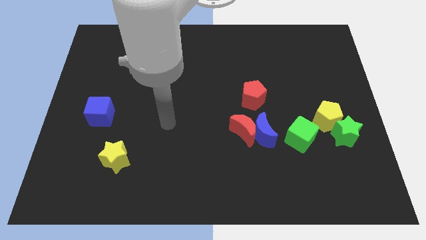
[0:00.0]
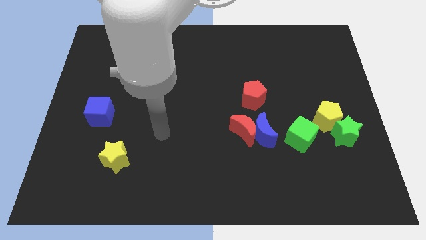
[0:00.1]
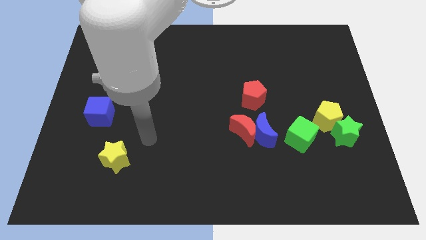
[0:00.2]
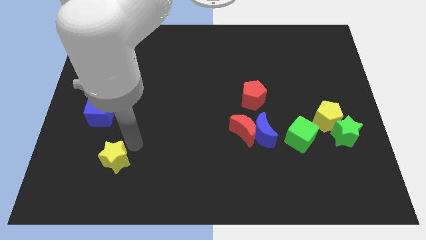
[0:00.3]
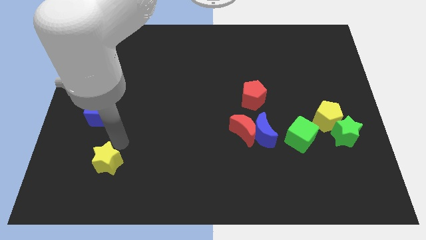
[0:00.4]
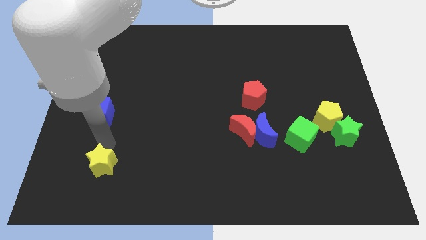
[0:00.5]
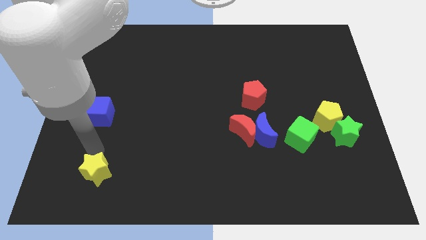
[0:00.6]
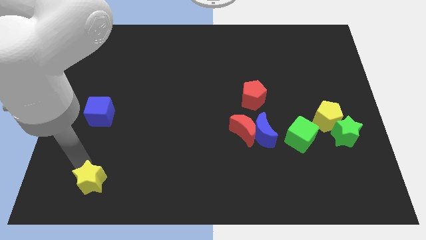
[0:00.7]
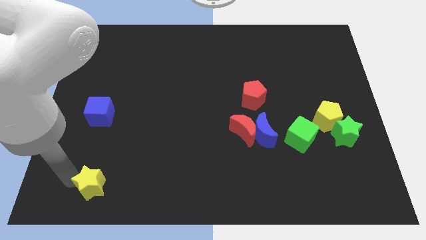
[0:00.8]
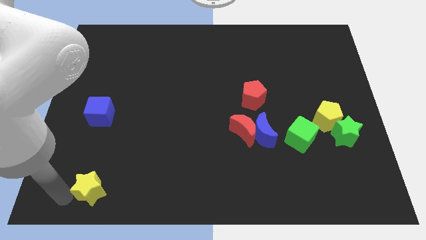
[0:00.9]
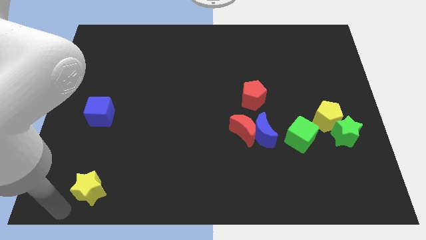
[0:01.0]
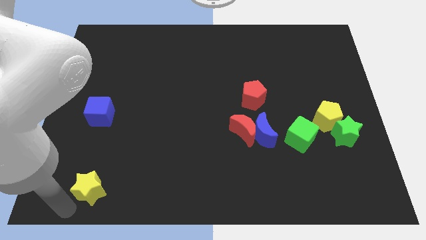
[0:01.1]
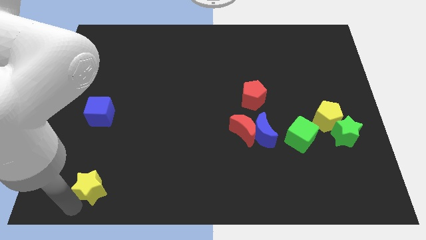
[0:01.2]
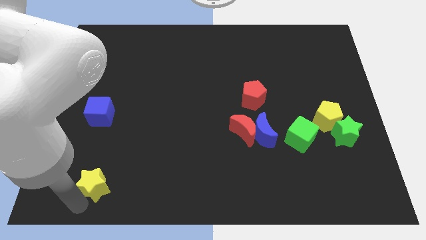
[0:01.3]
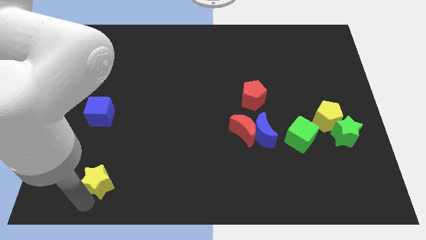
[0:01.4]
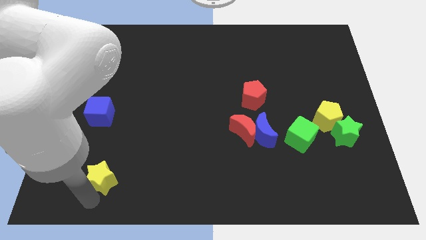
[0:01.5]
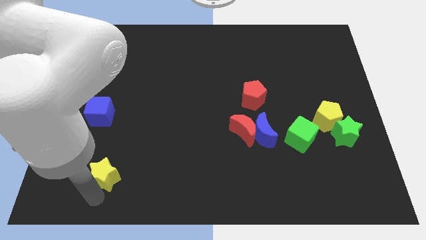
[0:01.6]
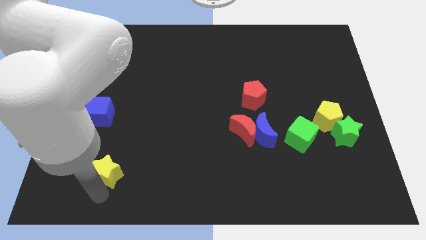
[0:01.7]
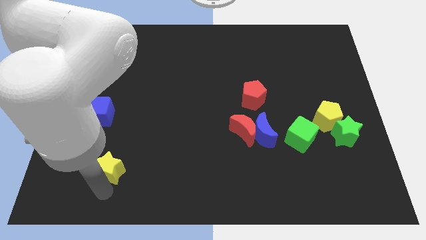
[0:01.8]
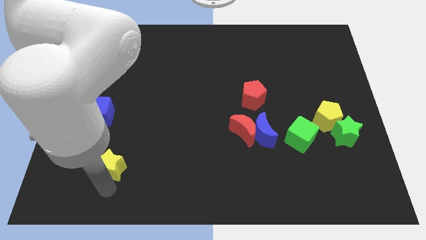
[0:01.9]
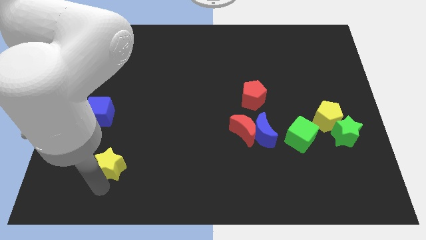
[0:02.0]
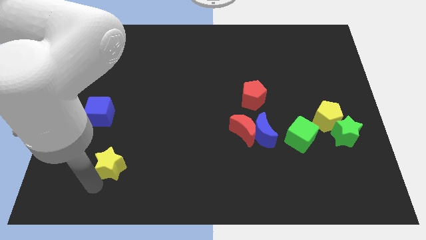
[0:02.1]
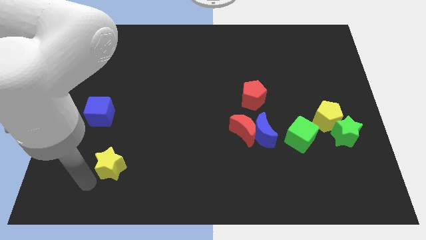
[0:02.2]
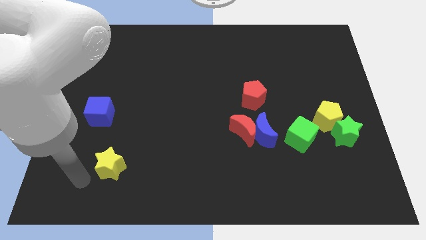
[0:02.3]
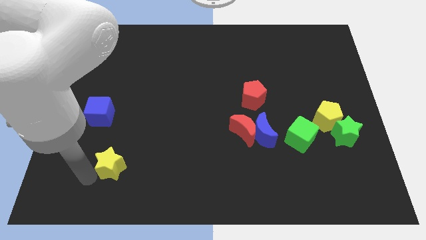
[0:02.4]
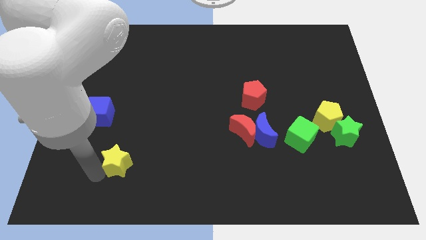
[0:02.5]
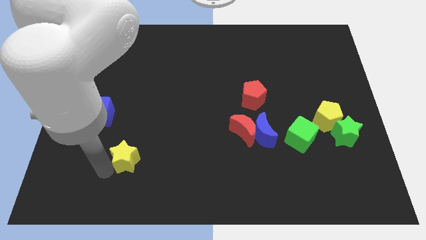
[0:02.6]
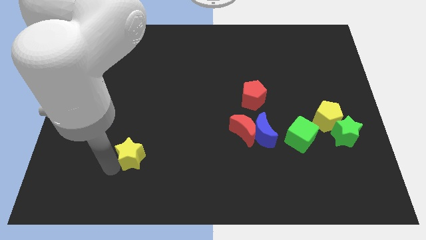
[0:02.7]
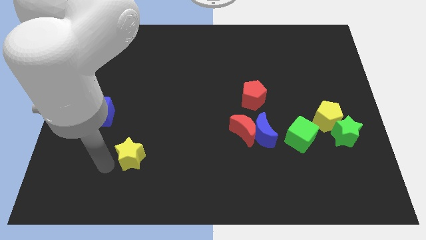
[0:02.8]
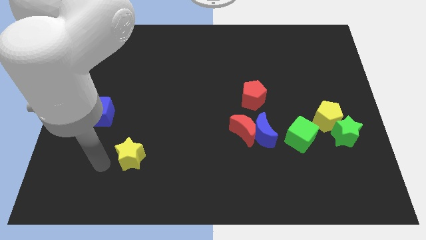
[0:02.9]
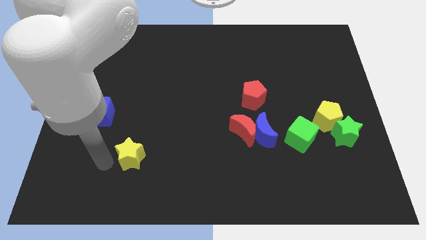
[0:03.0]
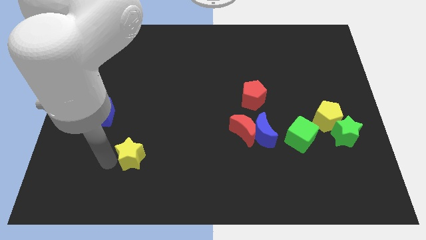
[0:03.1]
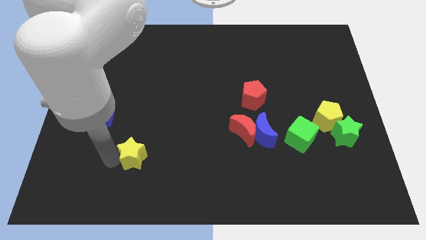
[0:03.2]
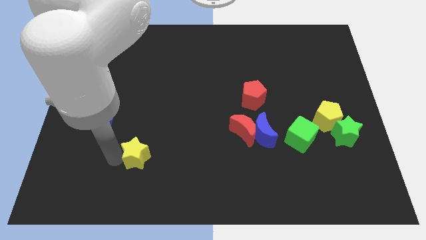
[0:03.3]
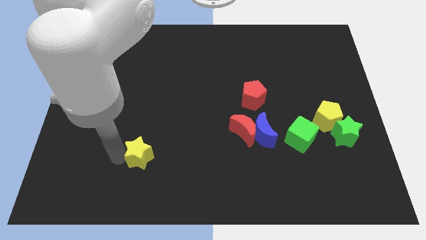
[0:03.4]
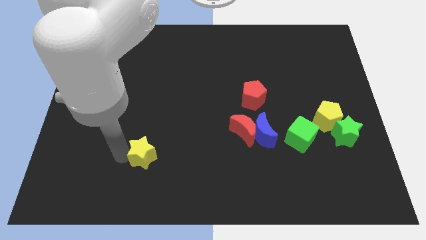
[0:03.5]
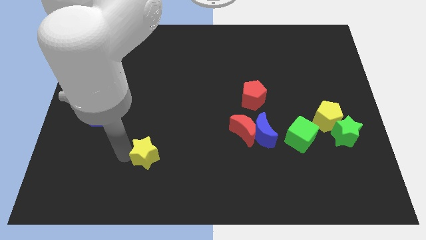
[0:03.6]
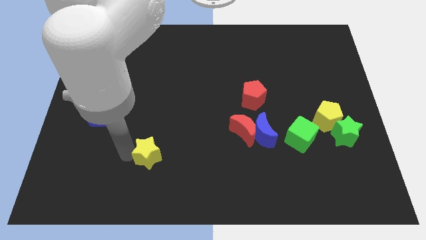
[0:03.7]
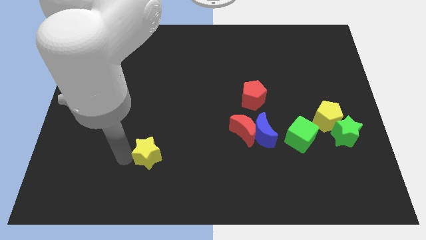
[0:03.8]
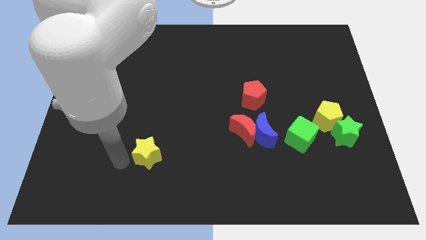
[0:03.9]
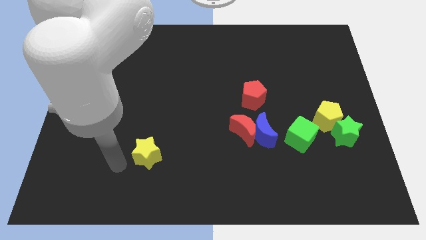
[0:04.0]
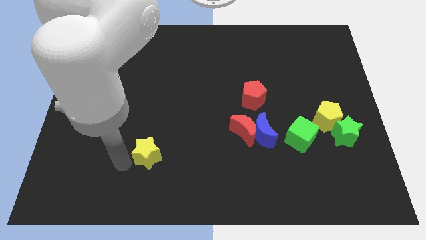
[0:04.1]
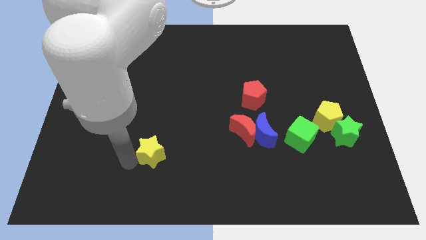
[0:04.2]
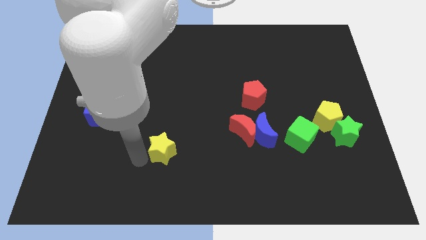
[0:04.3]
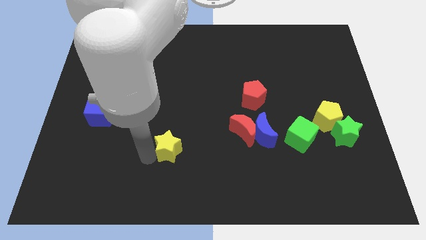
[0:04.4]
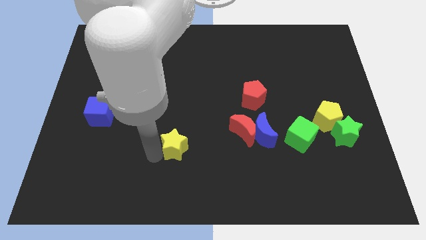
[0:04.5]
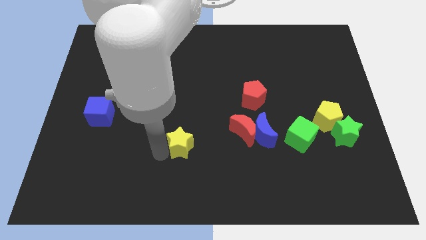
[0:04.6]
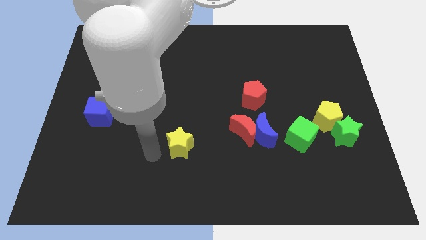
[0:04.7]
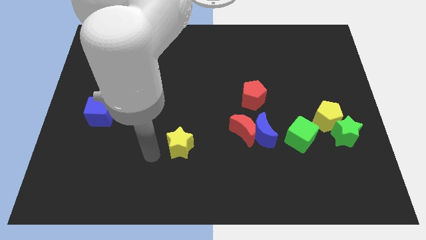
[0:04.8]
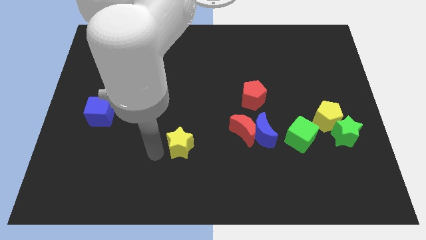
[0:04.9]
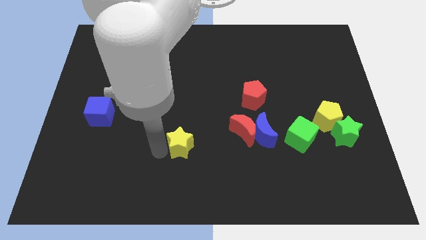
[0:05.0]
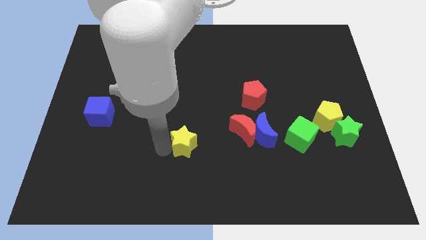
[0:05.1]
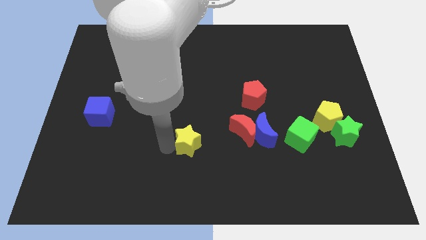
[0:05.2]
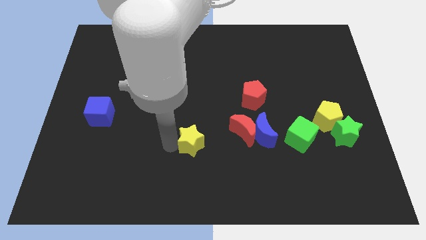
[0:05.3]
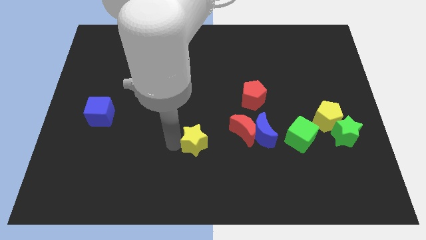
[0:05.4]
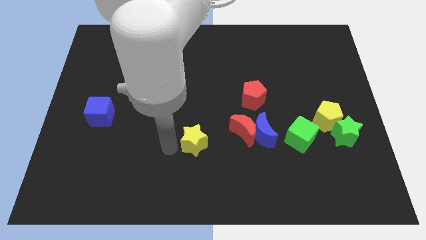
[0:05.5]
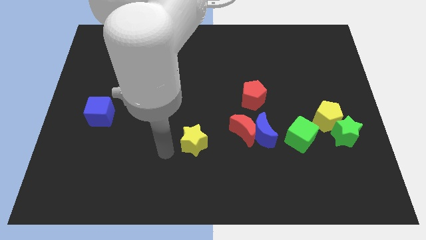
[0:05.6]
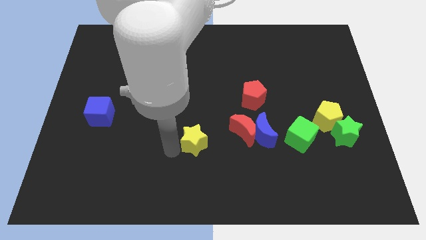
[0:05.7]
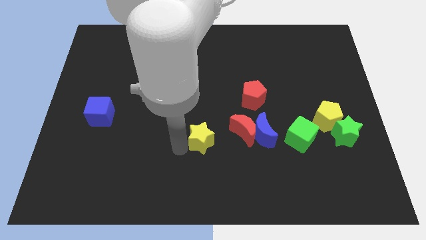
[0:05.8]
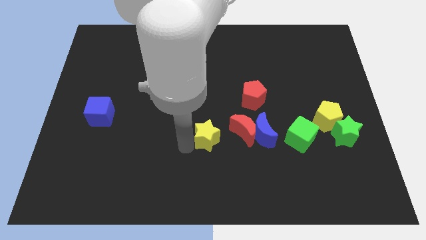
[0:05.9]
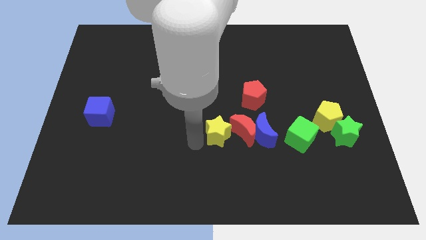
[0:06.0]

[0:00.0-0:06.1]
push the yellow star close to the red moon

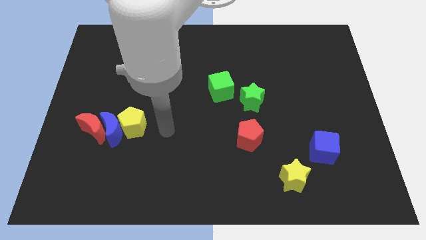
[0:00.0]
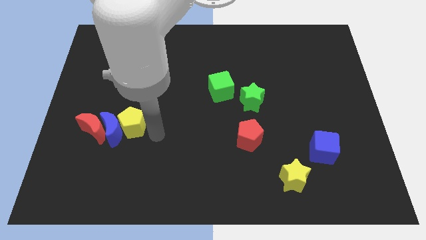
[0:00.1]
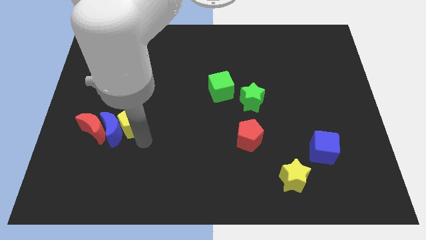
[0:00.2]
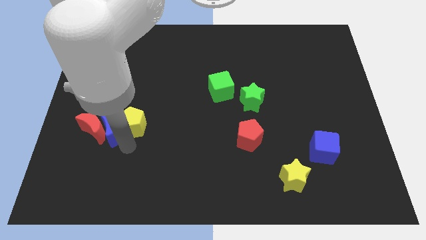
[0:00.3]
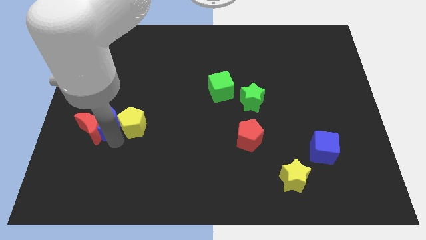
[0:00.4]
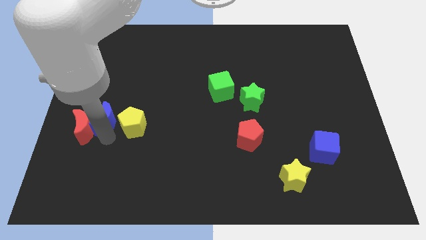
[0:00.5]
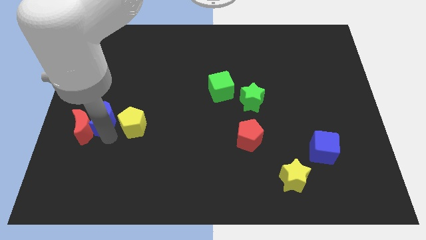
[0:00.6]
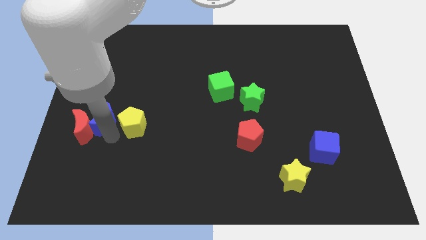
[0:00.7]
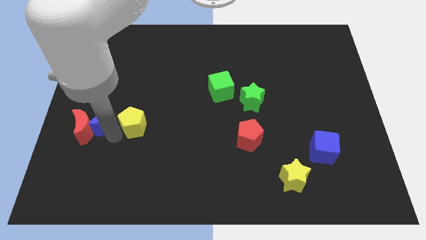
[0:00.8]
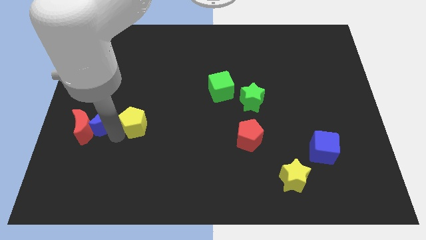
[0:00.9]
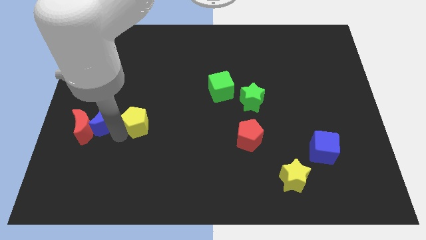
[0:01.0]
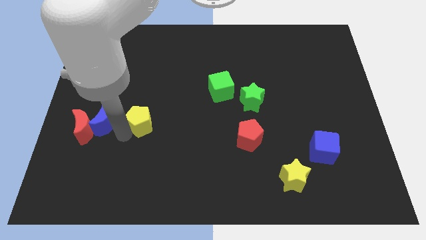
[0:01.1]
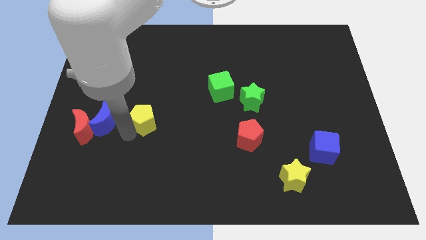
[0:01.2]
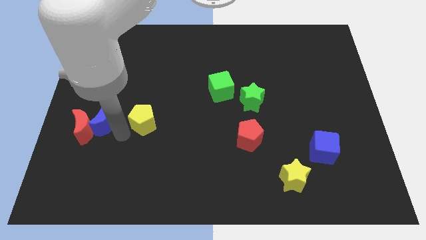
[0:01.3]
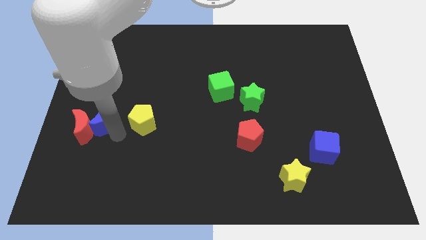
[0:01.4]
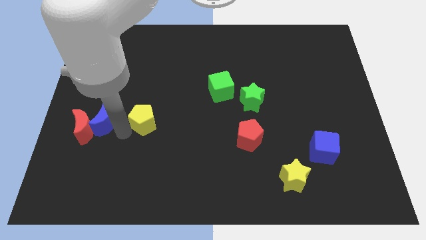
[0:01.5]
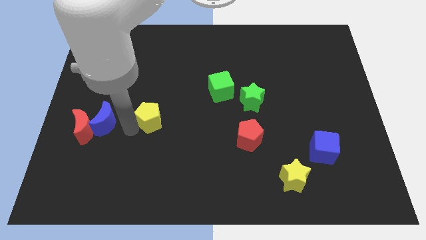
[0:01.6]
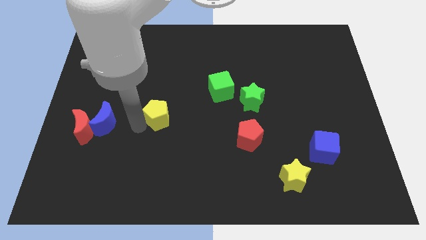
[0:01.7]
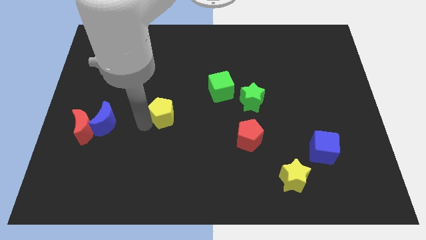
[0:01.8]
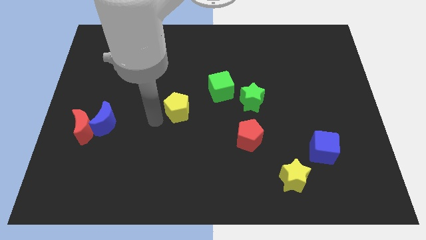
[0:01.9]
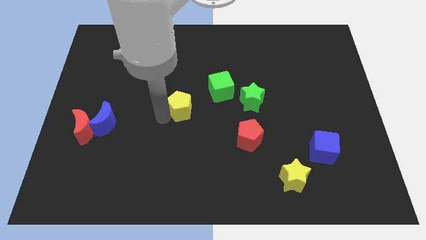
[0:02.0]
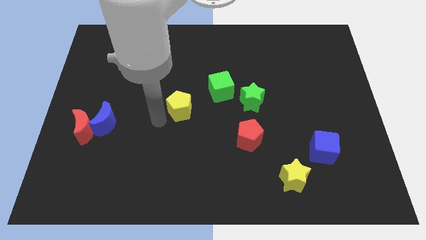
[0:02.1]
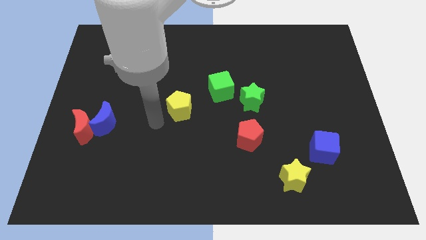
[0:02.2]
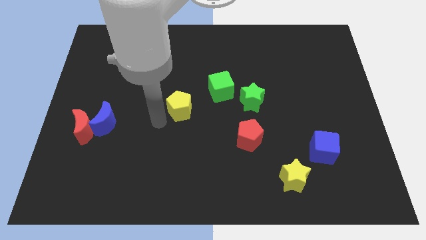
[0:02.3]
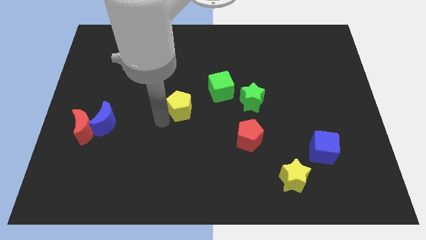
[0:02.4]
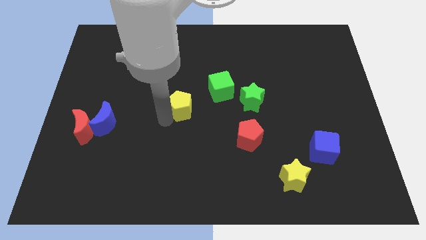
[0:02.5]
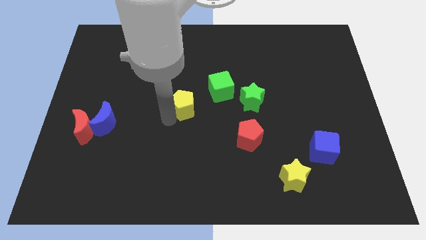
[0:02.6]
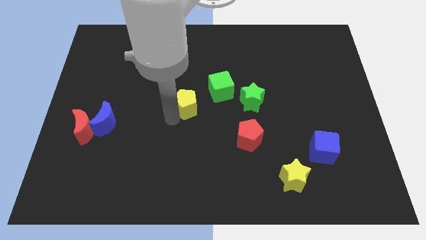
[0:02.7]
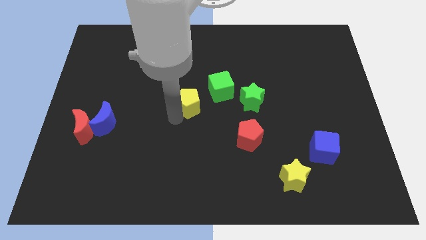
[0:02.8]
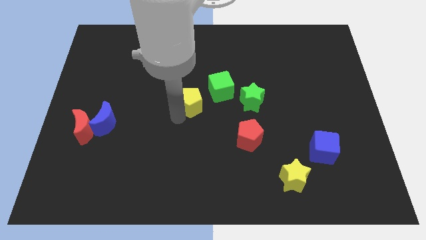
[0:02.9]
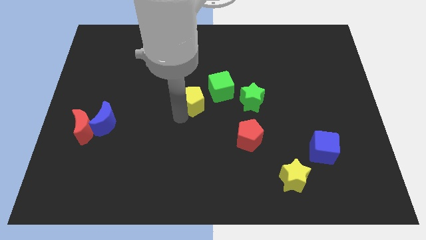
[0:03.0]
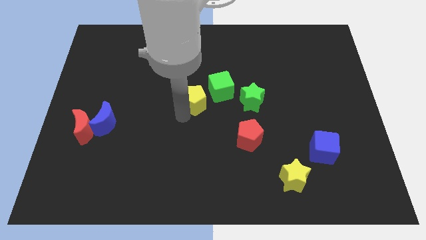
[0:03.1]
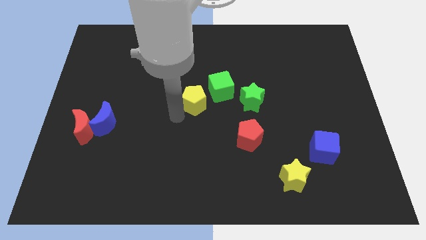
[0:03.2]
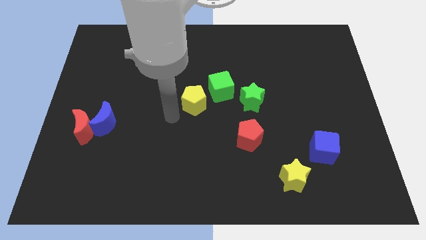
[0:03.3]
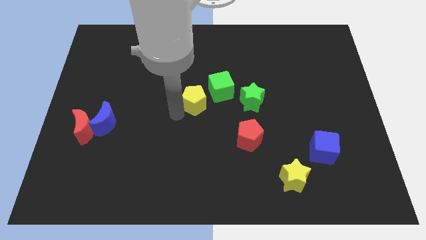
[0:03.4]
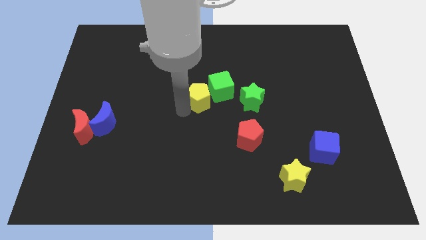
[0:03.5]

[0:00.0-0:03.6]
slide the yellow pentagon close to the green cube
